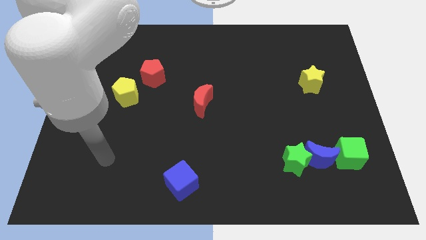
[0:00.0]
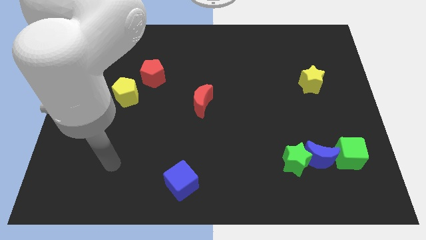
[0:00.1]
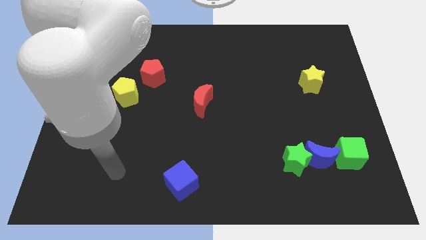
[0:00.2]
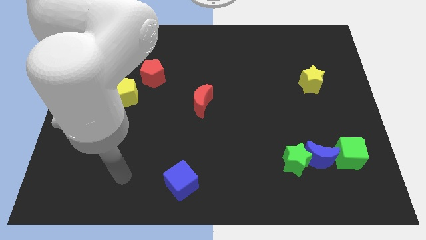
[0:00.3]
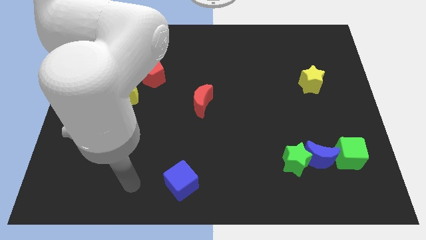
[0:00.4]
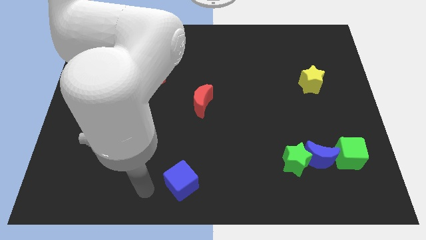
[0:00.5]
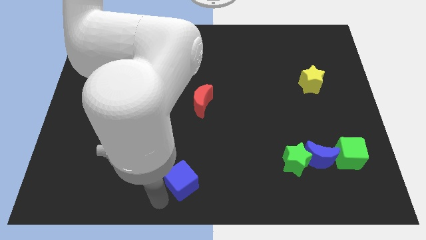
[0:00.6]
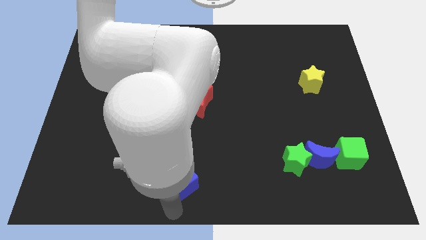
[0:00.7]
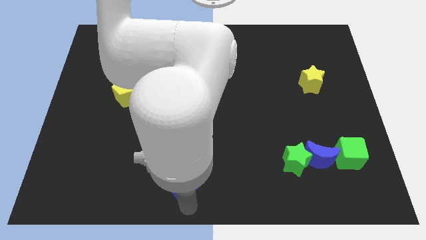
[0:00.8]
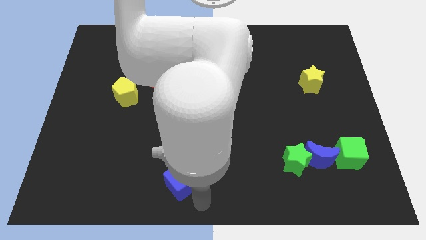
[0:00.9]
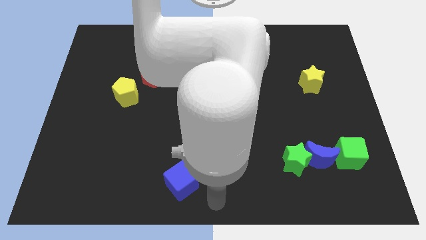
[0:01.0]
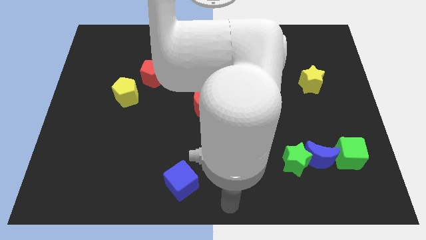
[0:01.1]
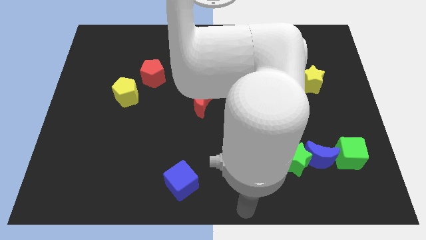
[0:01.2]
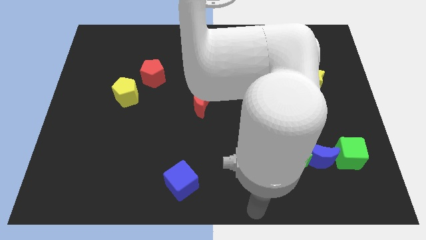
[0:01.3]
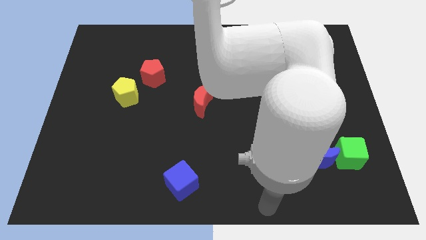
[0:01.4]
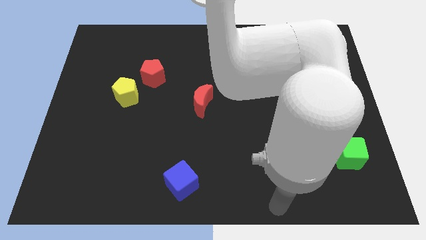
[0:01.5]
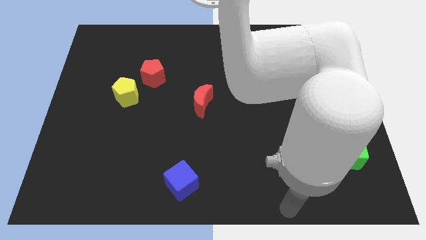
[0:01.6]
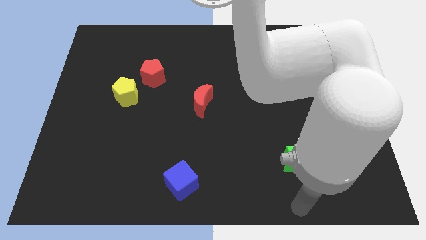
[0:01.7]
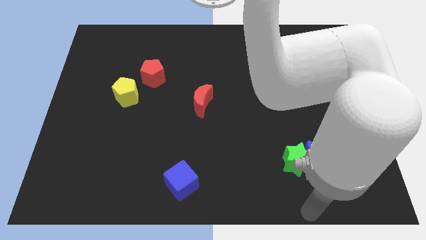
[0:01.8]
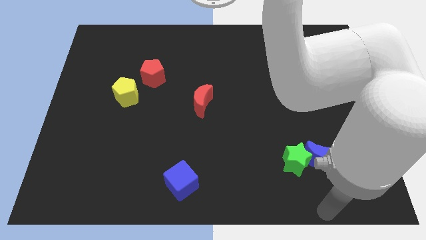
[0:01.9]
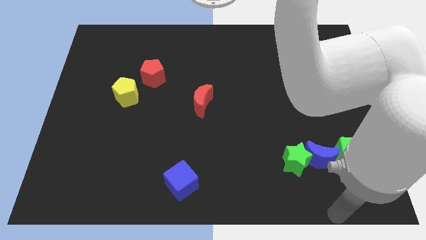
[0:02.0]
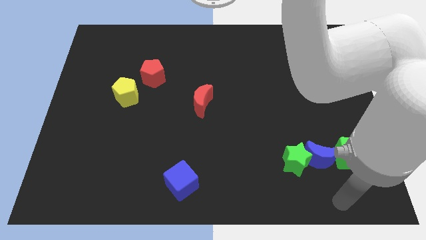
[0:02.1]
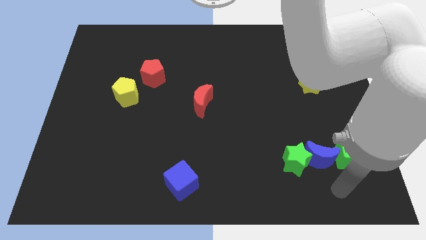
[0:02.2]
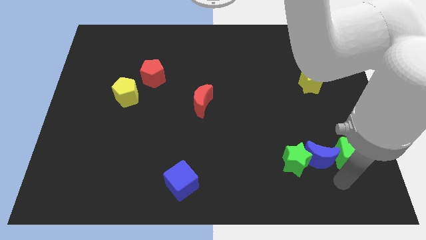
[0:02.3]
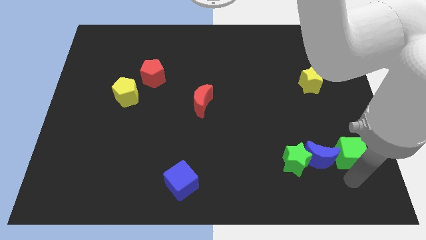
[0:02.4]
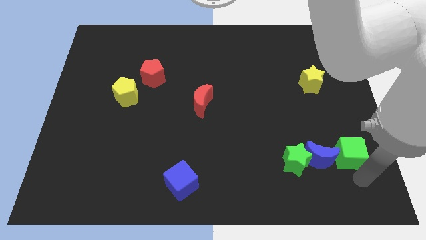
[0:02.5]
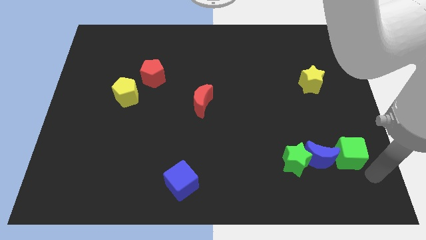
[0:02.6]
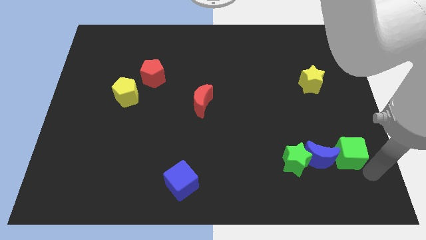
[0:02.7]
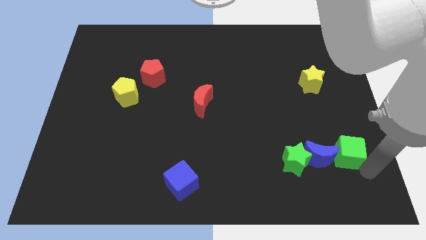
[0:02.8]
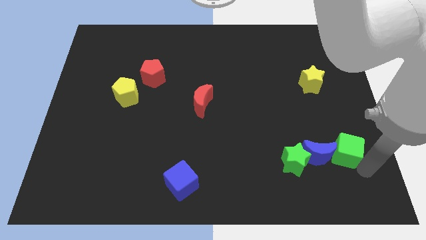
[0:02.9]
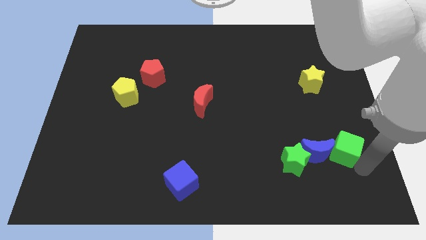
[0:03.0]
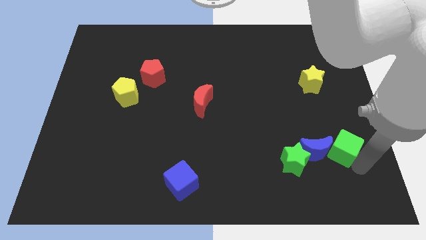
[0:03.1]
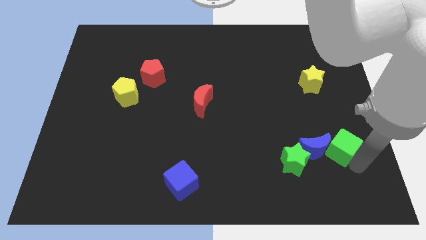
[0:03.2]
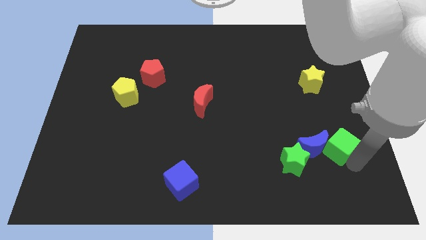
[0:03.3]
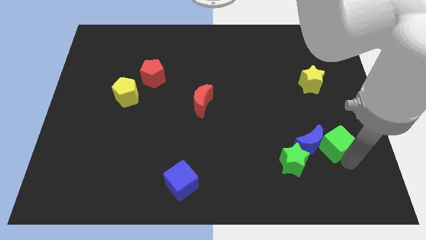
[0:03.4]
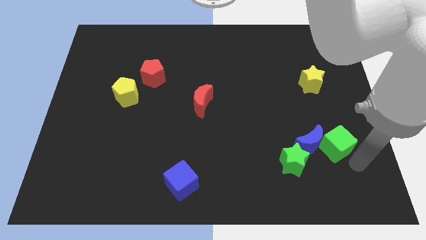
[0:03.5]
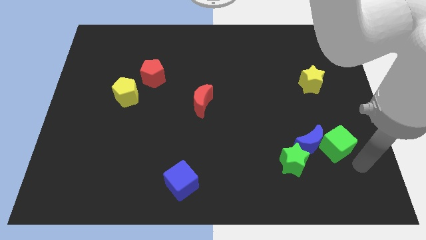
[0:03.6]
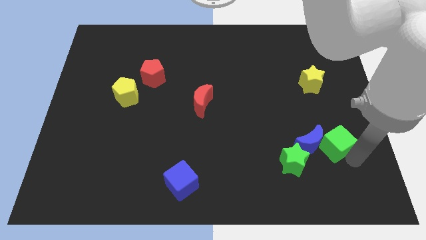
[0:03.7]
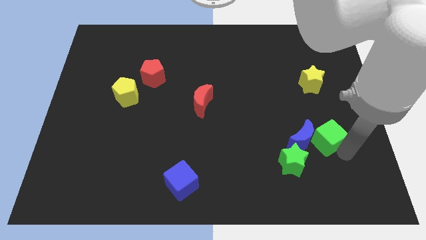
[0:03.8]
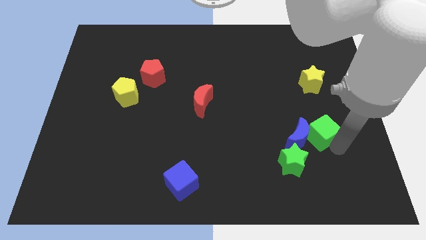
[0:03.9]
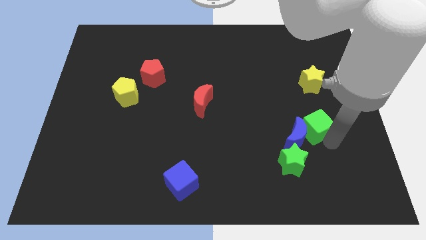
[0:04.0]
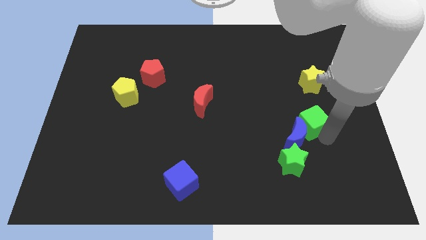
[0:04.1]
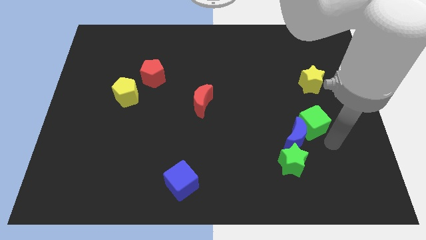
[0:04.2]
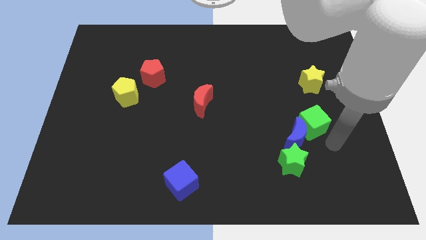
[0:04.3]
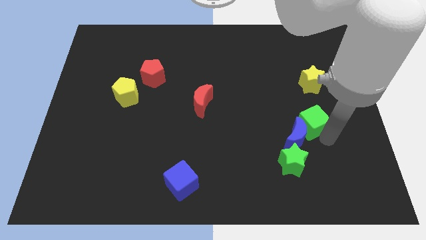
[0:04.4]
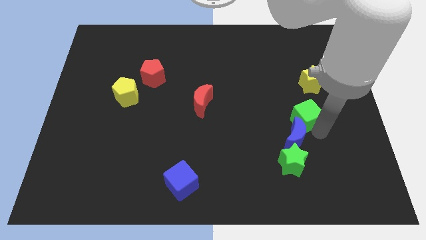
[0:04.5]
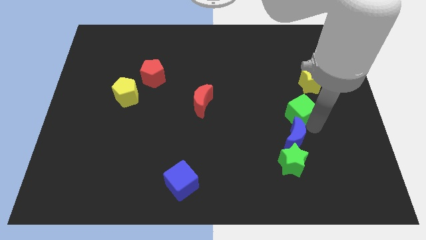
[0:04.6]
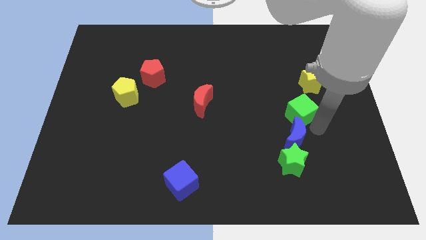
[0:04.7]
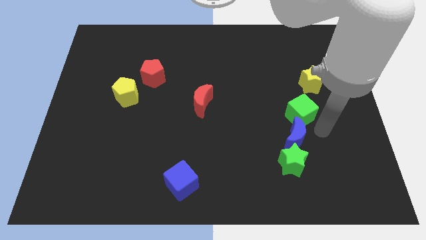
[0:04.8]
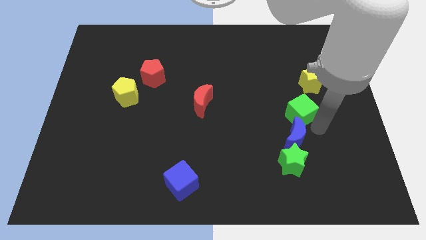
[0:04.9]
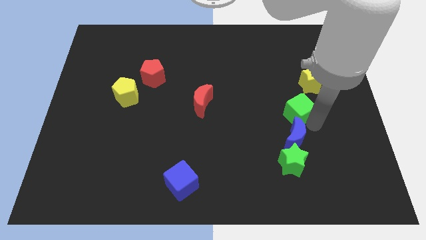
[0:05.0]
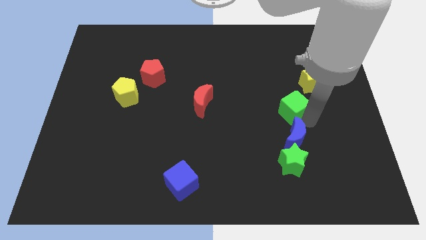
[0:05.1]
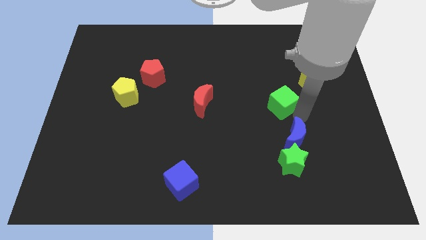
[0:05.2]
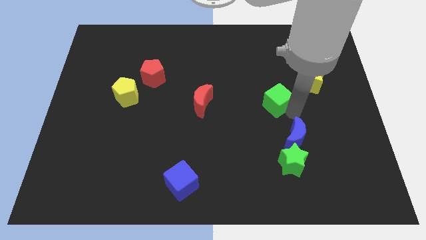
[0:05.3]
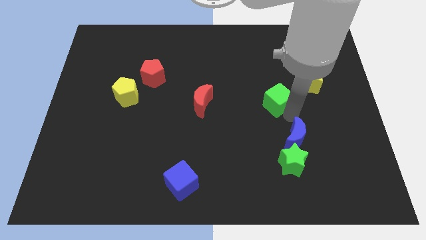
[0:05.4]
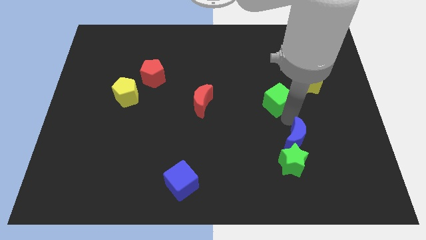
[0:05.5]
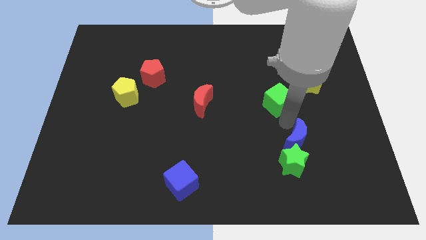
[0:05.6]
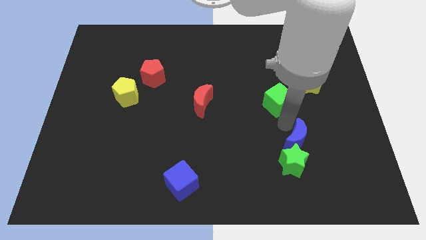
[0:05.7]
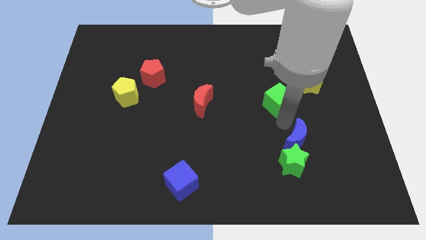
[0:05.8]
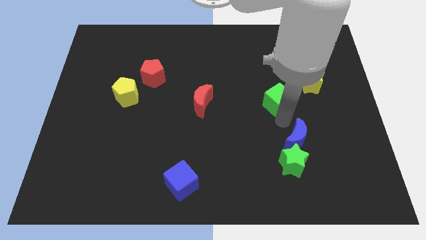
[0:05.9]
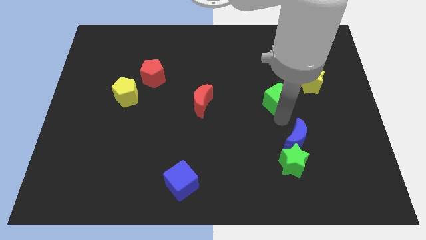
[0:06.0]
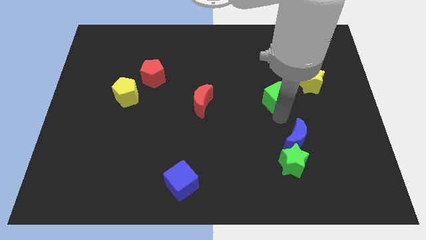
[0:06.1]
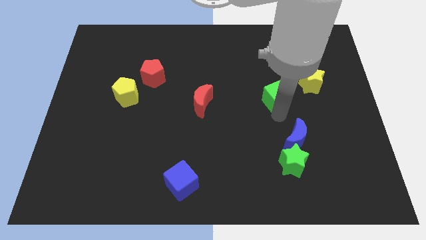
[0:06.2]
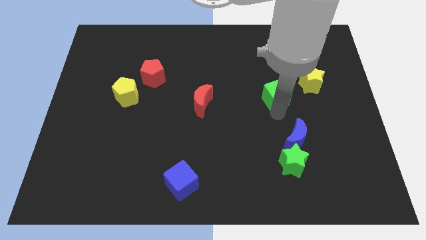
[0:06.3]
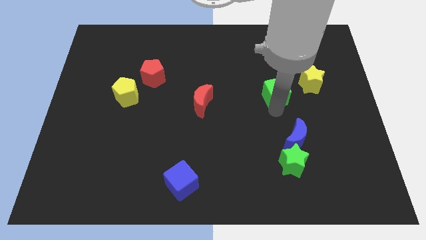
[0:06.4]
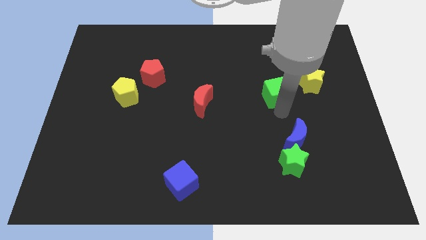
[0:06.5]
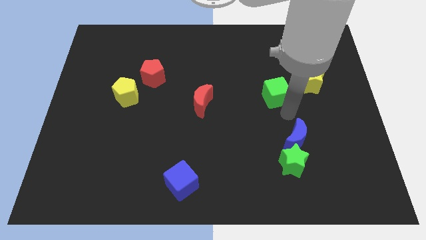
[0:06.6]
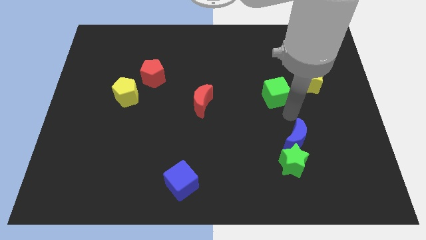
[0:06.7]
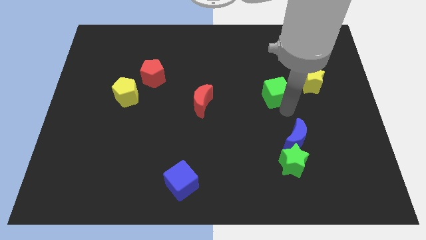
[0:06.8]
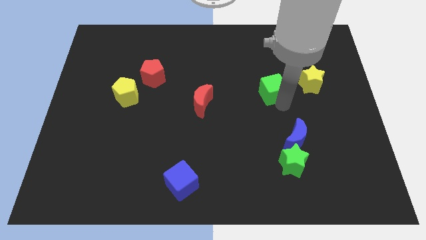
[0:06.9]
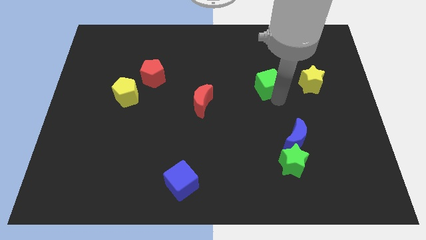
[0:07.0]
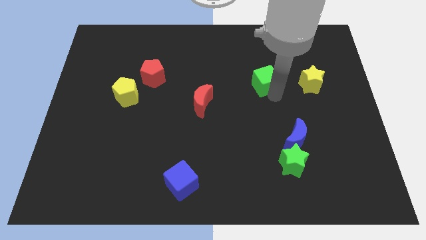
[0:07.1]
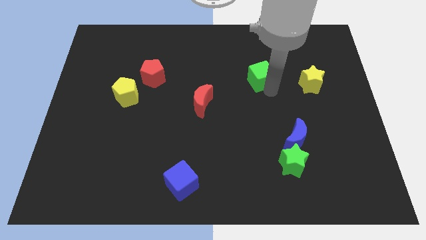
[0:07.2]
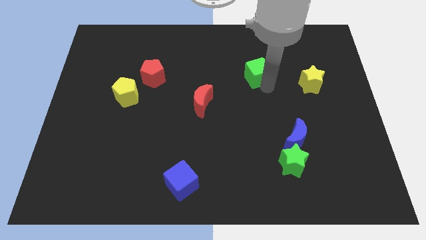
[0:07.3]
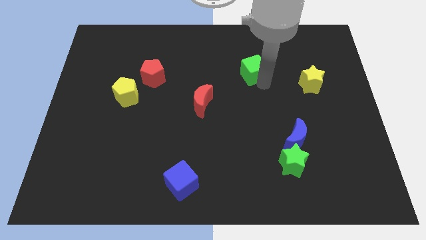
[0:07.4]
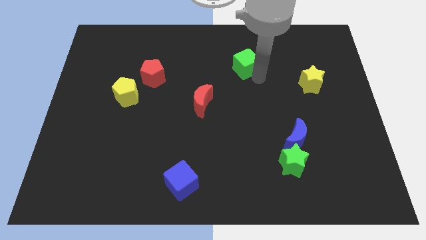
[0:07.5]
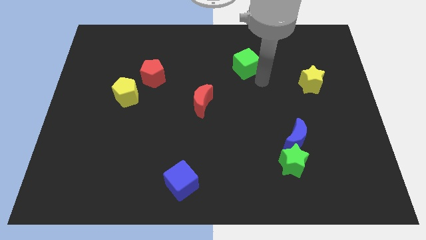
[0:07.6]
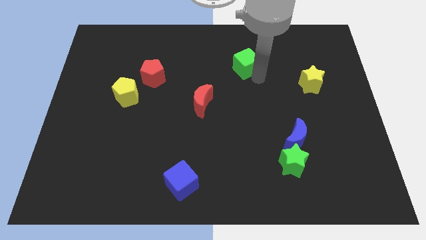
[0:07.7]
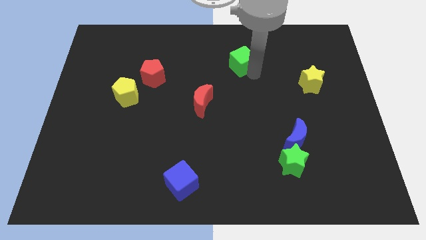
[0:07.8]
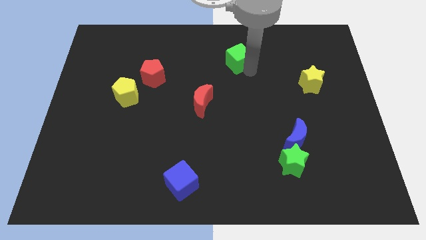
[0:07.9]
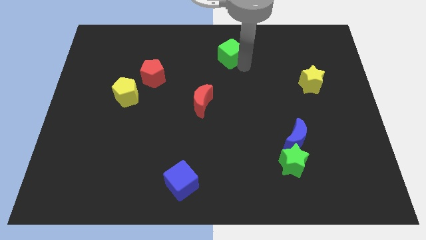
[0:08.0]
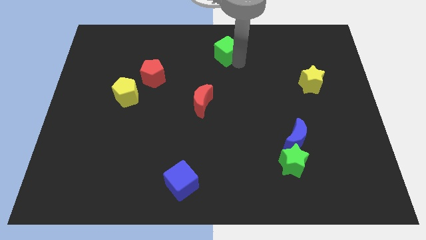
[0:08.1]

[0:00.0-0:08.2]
put the green cube to the top
